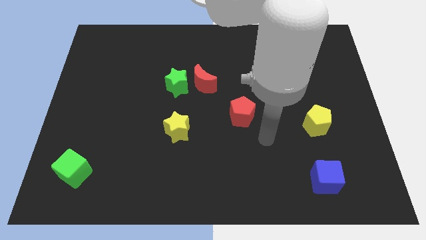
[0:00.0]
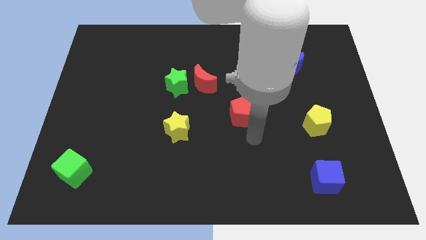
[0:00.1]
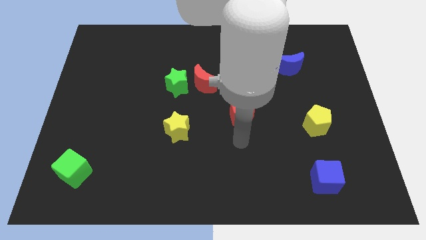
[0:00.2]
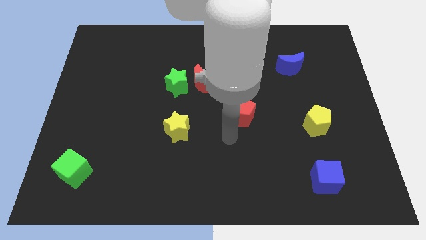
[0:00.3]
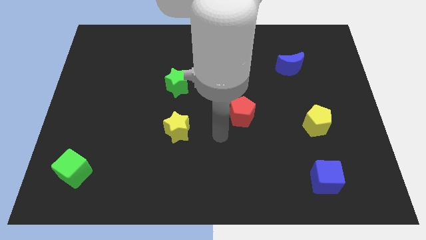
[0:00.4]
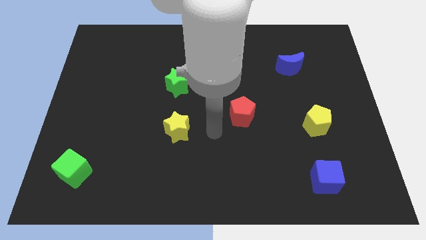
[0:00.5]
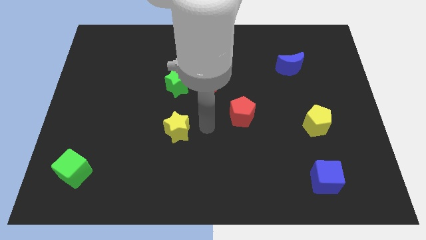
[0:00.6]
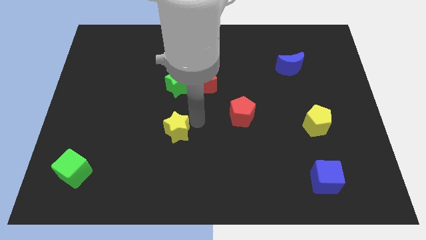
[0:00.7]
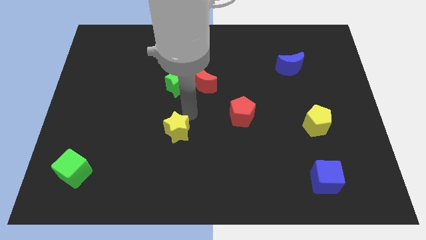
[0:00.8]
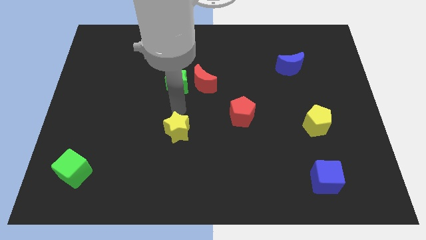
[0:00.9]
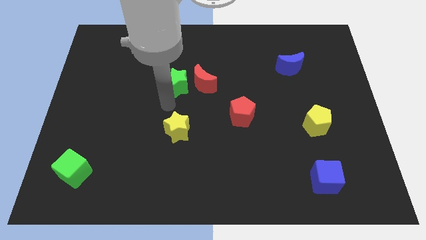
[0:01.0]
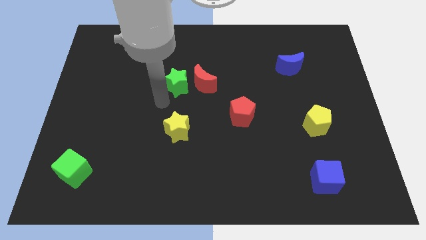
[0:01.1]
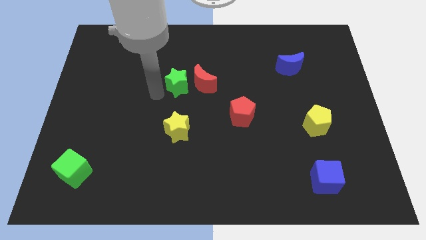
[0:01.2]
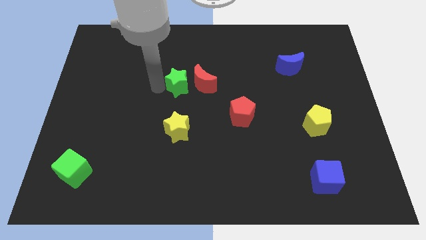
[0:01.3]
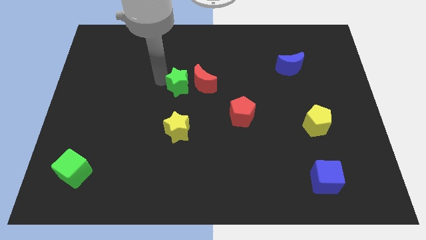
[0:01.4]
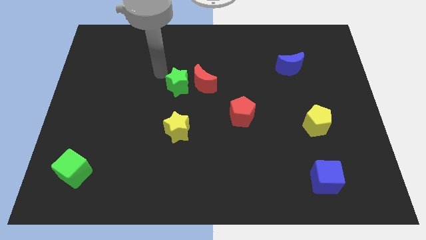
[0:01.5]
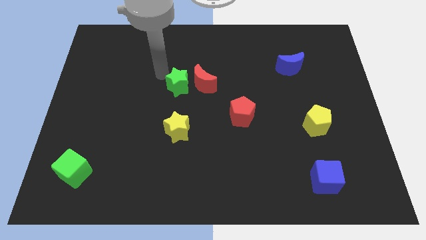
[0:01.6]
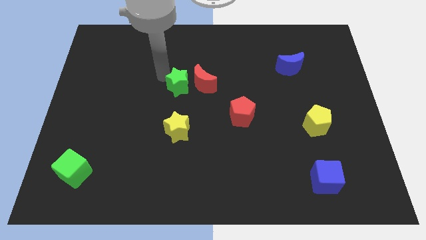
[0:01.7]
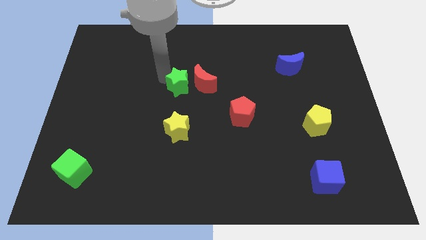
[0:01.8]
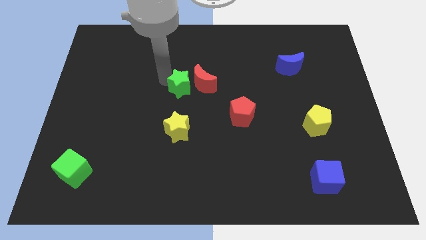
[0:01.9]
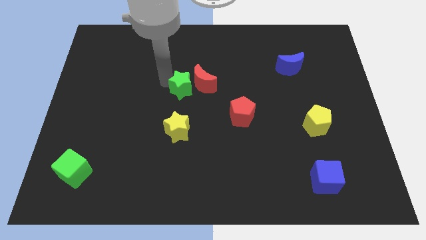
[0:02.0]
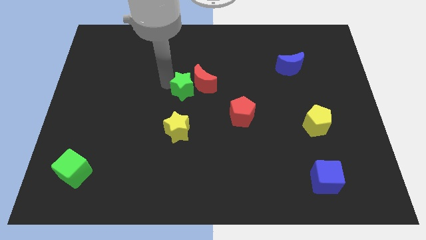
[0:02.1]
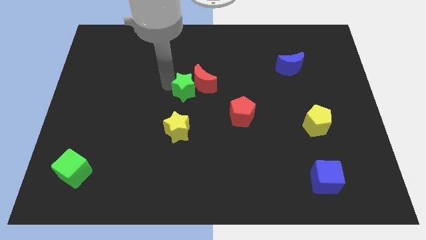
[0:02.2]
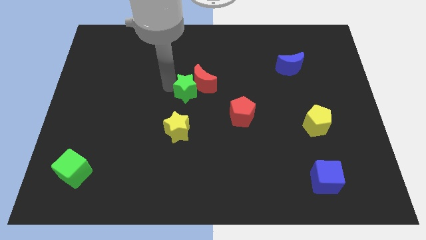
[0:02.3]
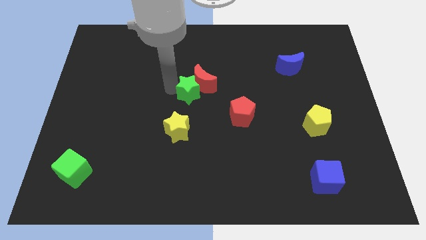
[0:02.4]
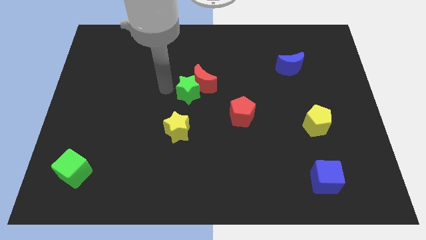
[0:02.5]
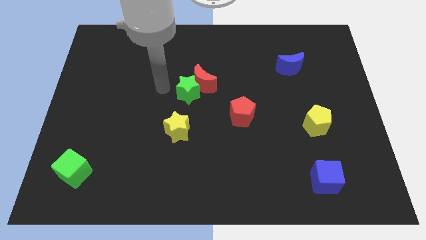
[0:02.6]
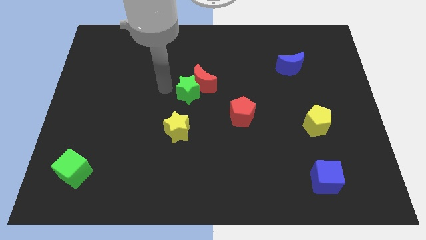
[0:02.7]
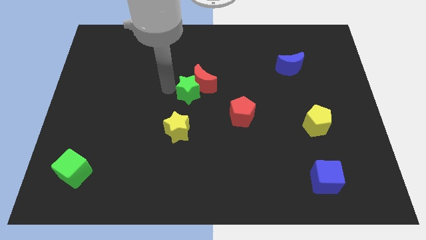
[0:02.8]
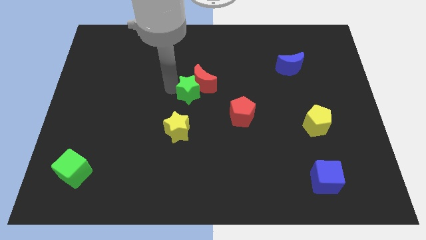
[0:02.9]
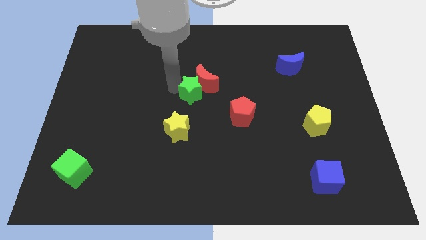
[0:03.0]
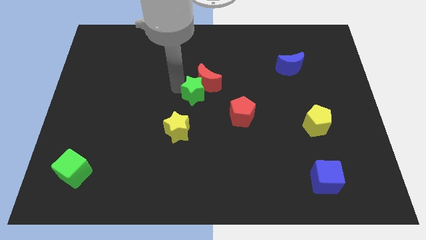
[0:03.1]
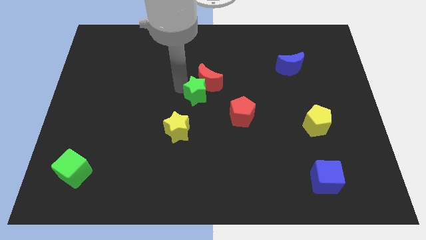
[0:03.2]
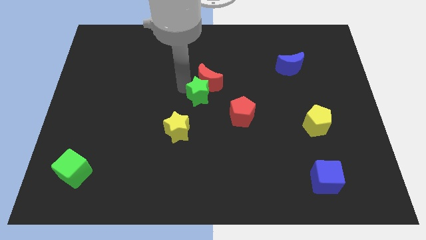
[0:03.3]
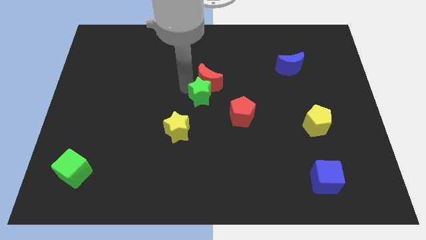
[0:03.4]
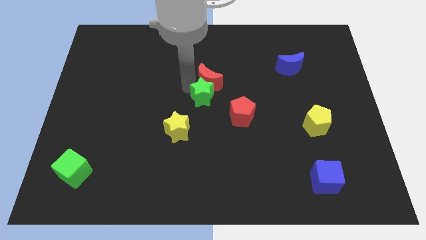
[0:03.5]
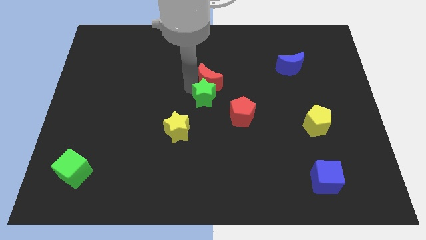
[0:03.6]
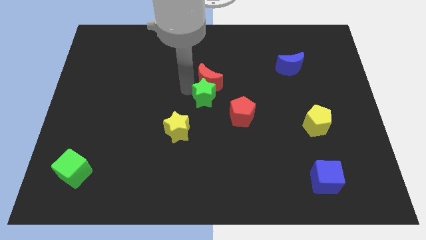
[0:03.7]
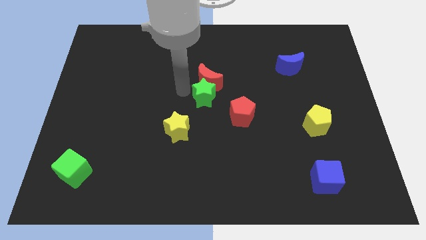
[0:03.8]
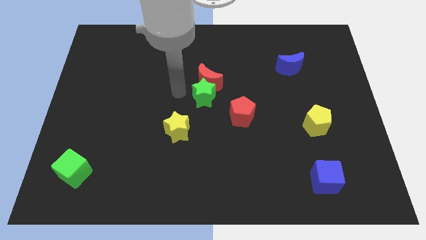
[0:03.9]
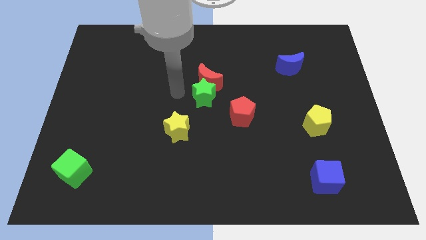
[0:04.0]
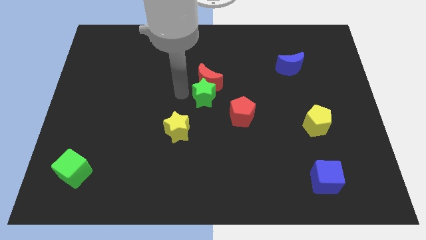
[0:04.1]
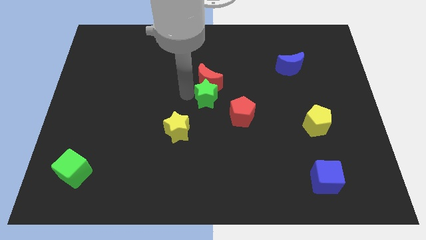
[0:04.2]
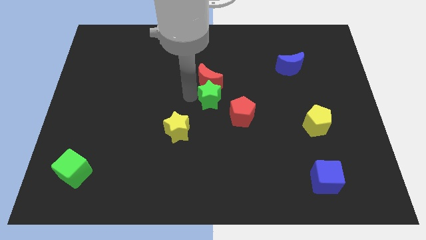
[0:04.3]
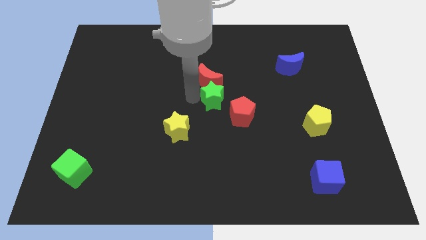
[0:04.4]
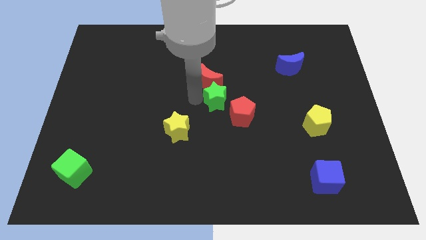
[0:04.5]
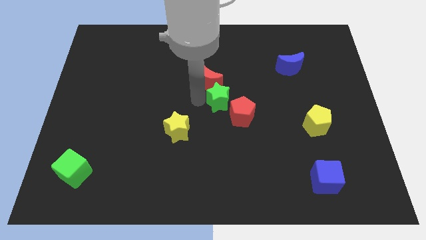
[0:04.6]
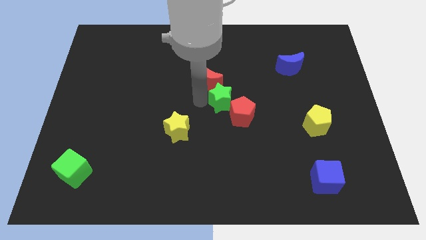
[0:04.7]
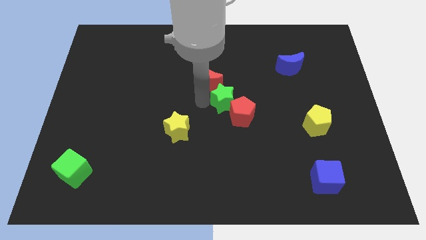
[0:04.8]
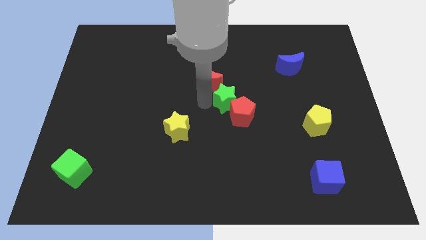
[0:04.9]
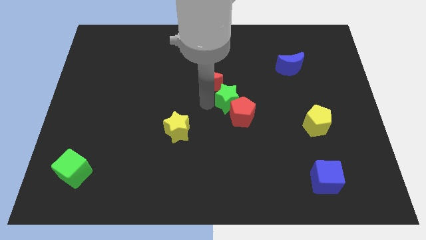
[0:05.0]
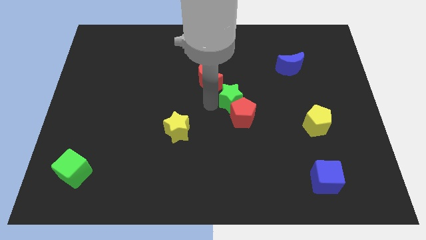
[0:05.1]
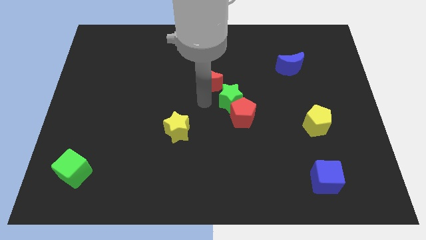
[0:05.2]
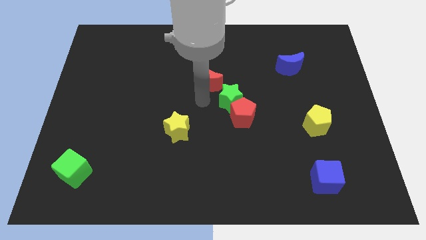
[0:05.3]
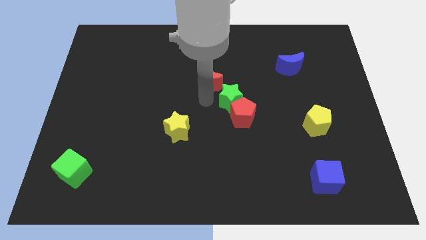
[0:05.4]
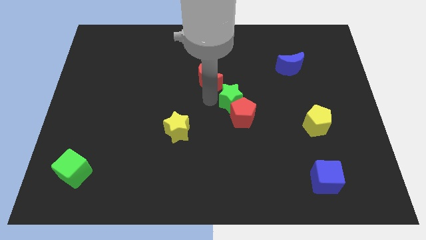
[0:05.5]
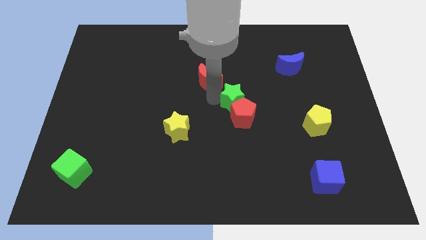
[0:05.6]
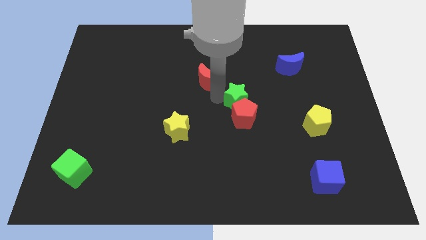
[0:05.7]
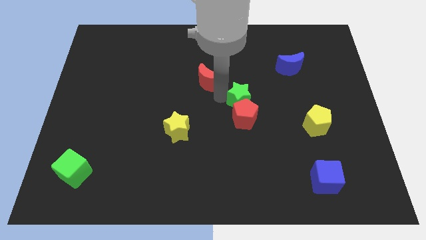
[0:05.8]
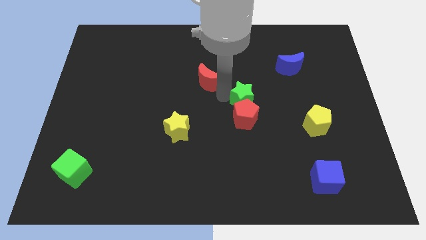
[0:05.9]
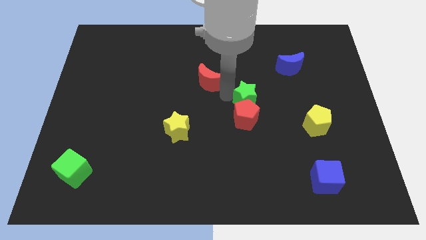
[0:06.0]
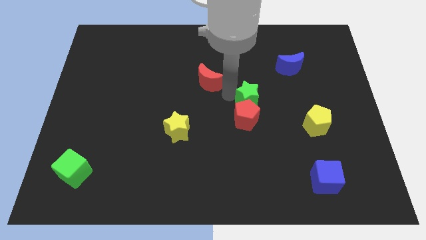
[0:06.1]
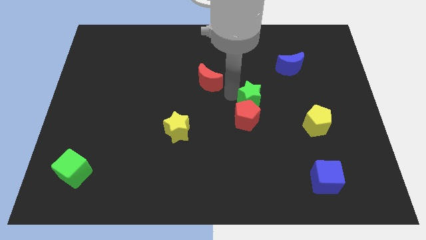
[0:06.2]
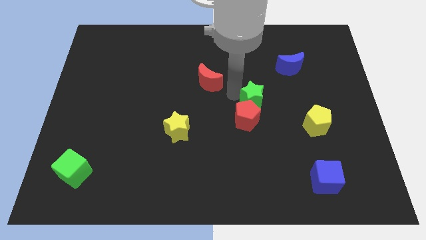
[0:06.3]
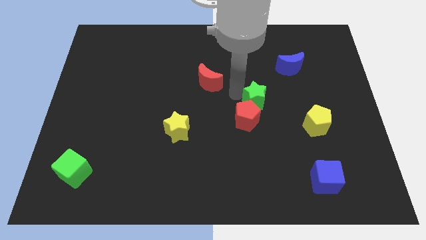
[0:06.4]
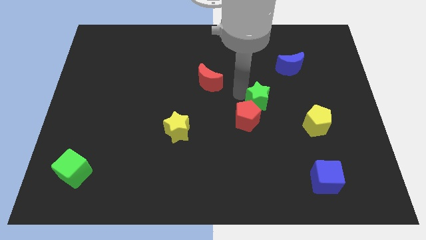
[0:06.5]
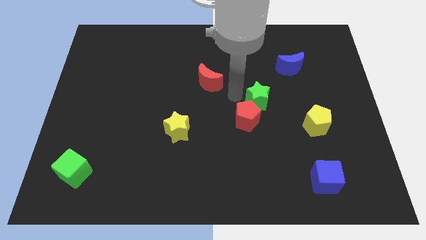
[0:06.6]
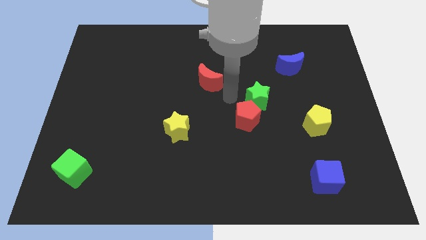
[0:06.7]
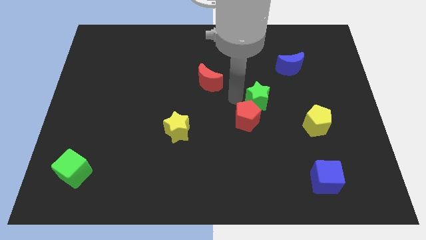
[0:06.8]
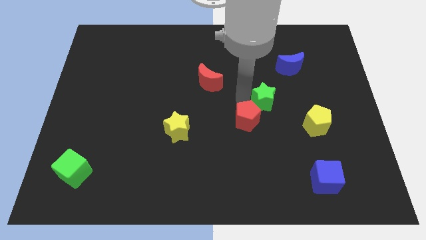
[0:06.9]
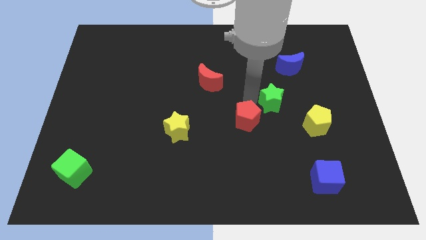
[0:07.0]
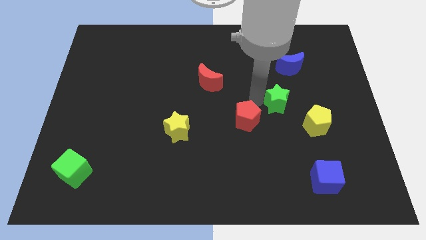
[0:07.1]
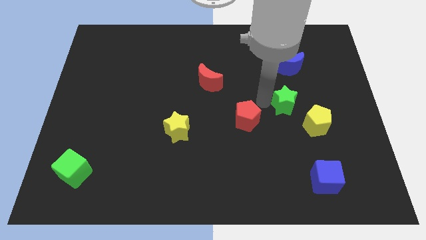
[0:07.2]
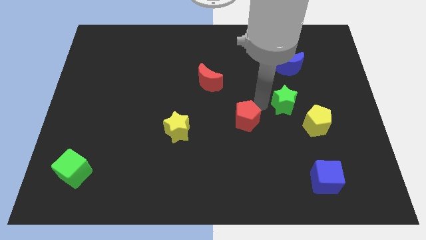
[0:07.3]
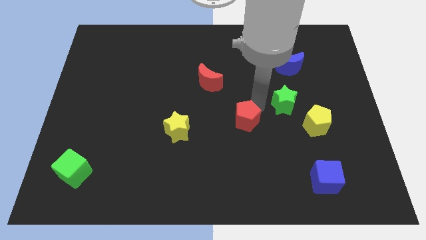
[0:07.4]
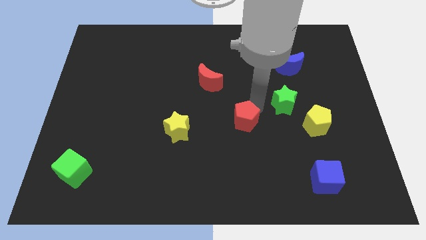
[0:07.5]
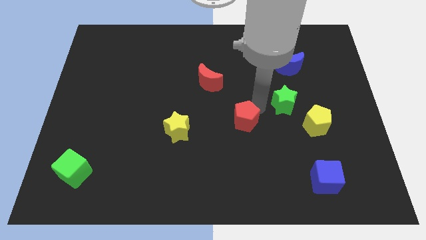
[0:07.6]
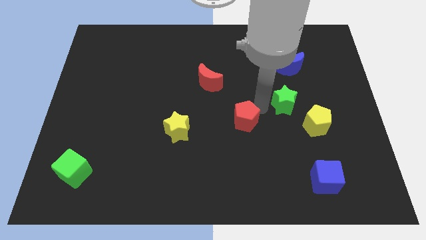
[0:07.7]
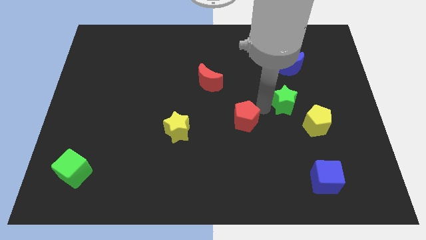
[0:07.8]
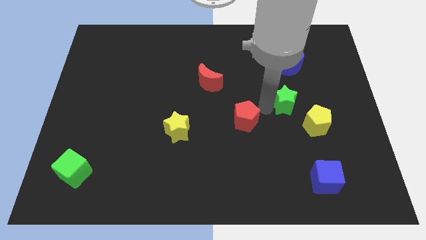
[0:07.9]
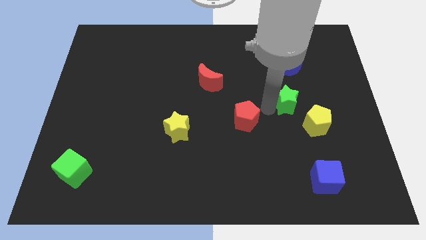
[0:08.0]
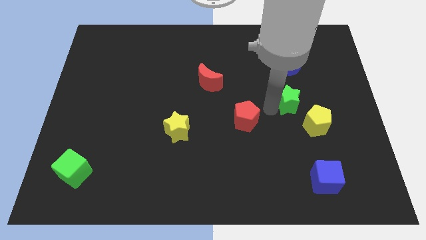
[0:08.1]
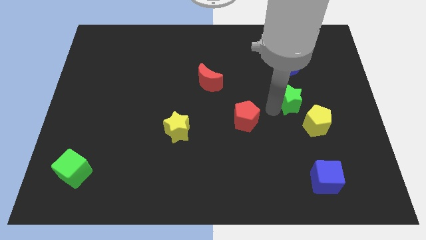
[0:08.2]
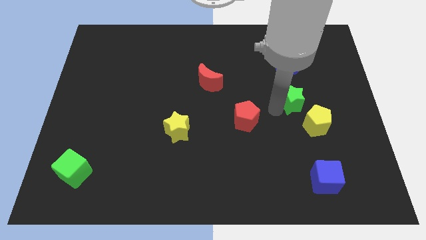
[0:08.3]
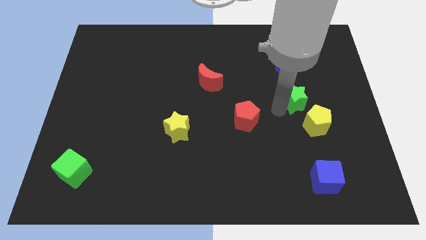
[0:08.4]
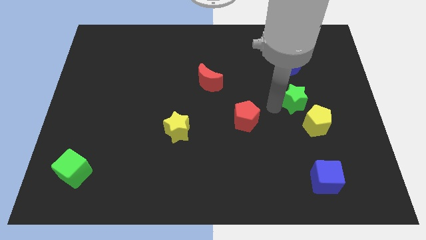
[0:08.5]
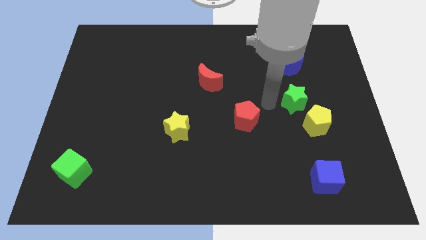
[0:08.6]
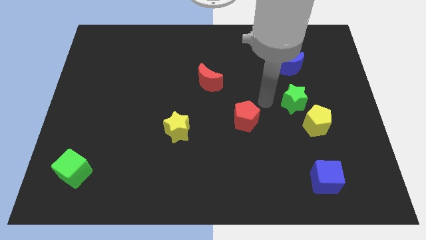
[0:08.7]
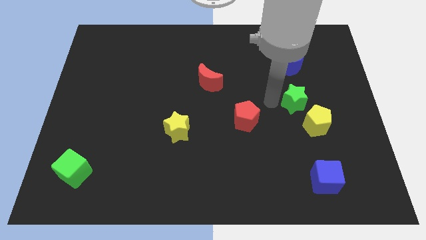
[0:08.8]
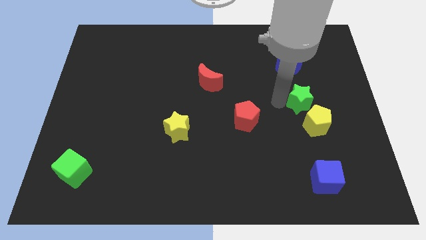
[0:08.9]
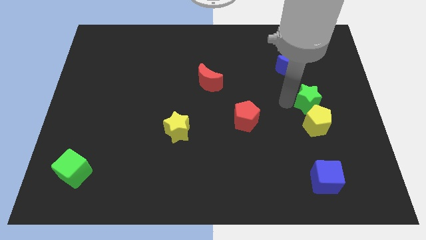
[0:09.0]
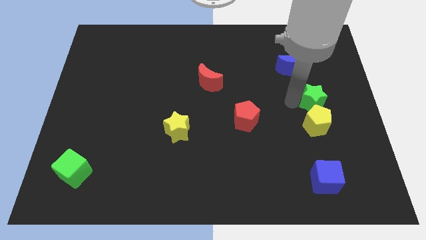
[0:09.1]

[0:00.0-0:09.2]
slide the green star diagonally up and to the right of the yellow pentagon
